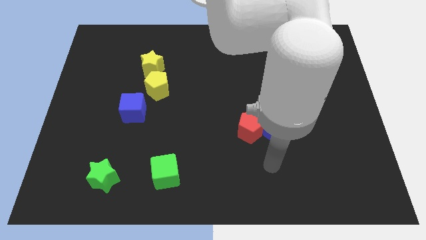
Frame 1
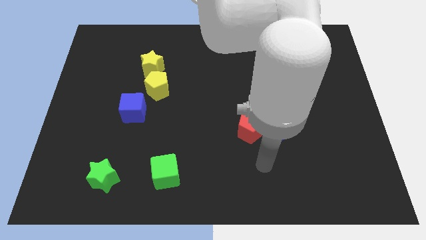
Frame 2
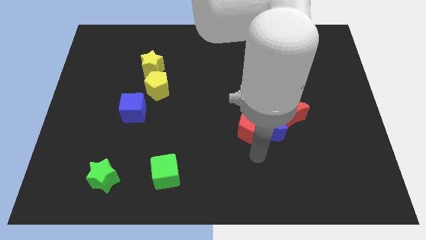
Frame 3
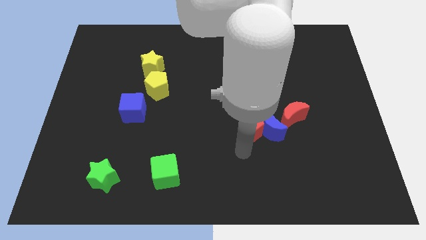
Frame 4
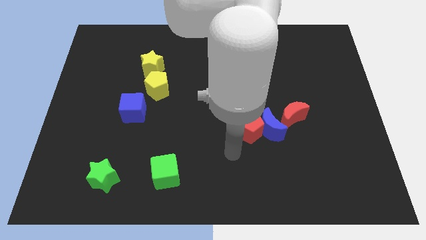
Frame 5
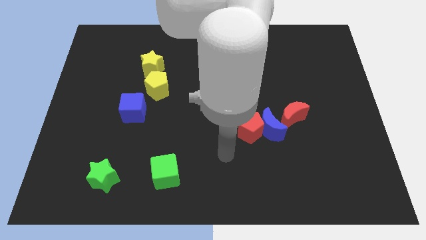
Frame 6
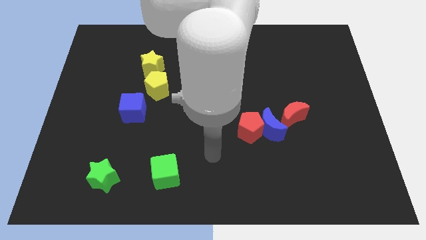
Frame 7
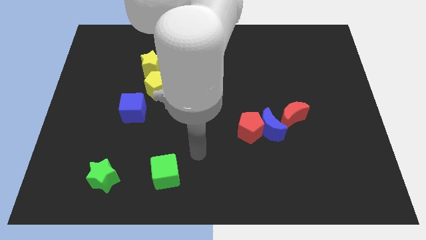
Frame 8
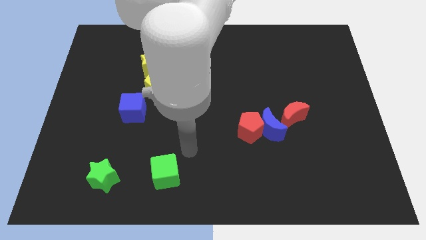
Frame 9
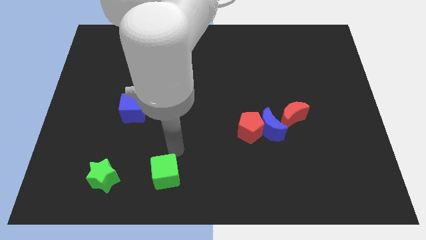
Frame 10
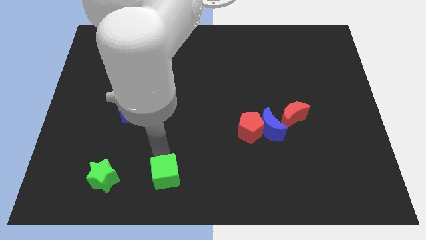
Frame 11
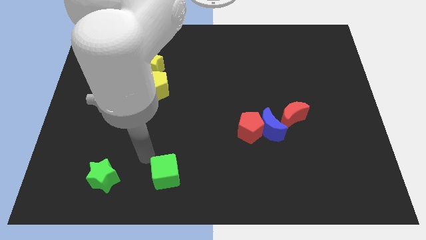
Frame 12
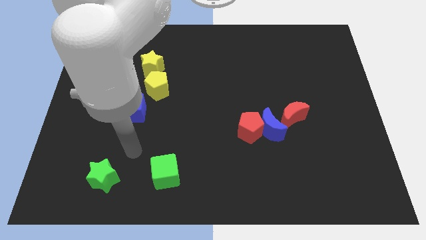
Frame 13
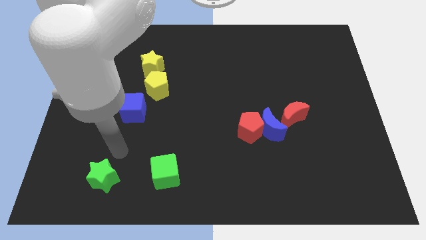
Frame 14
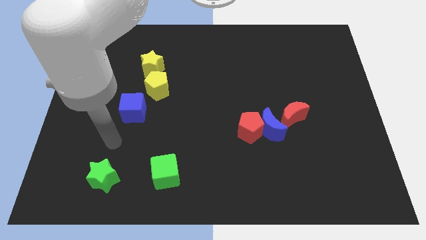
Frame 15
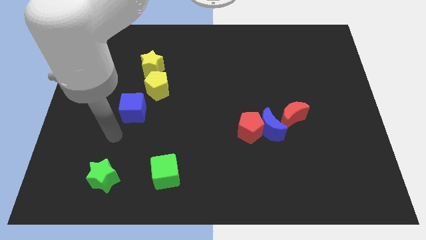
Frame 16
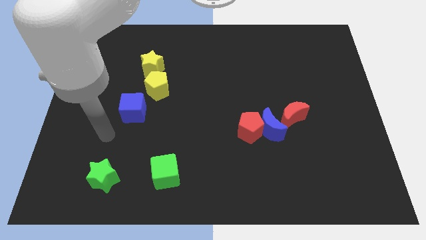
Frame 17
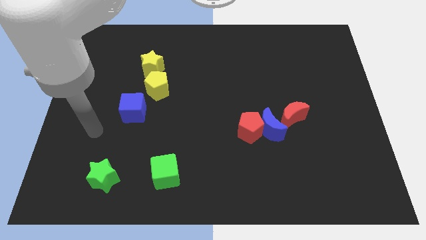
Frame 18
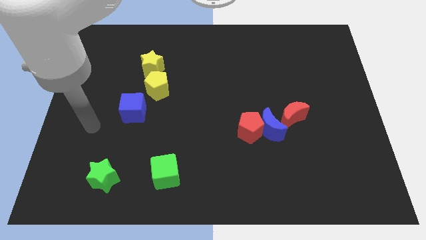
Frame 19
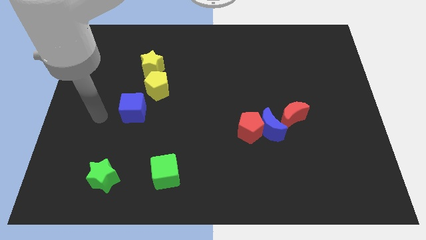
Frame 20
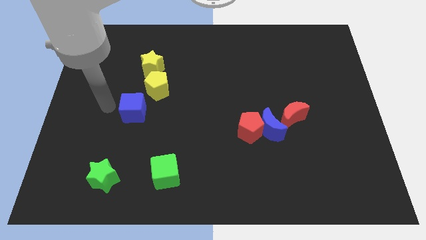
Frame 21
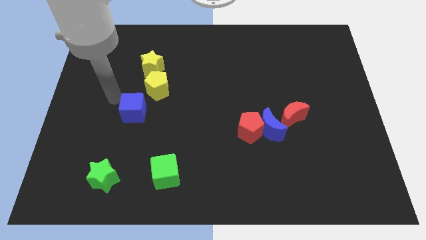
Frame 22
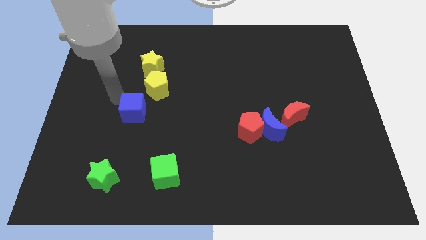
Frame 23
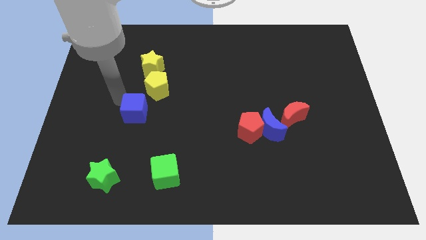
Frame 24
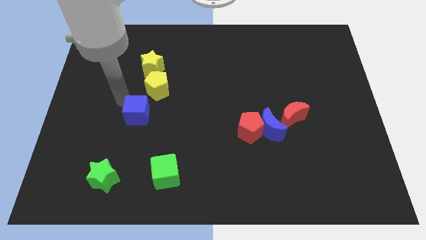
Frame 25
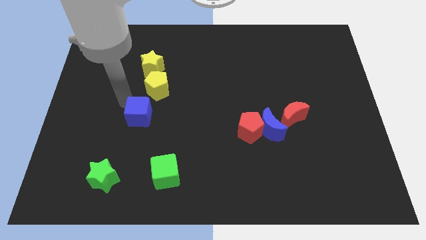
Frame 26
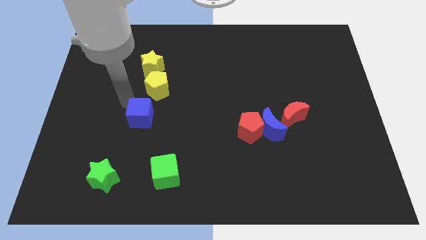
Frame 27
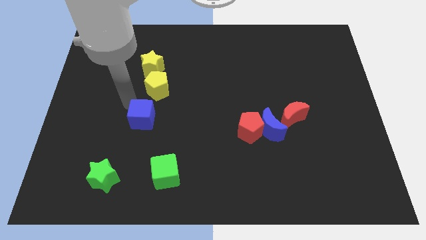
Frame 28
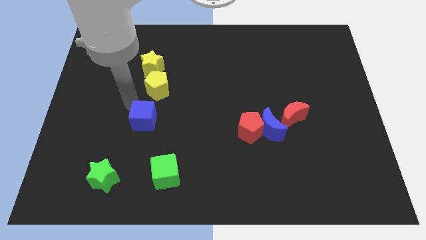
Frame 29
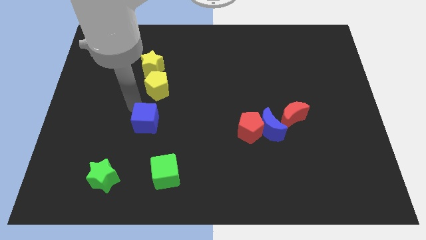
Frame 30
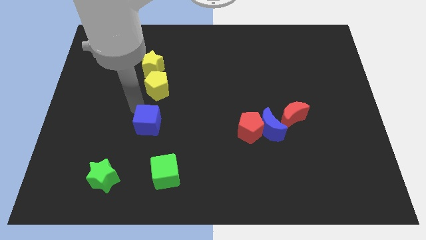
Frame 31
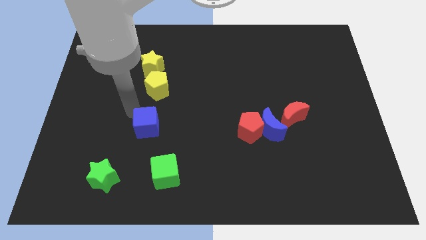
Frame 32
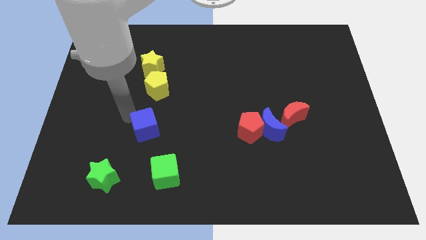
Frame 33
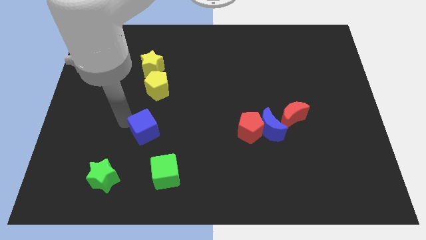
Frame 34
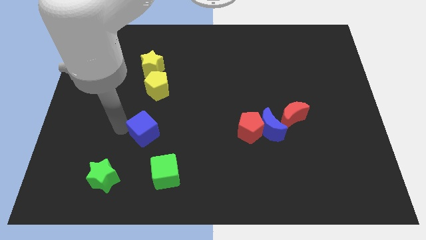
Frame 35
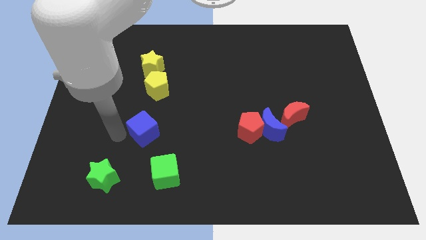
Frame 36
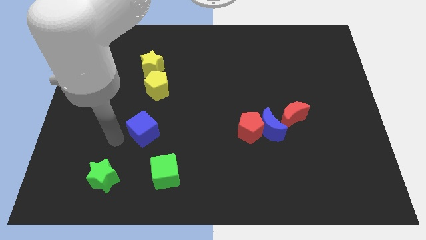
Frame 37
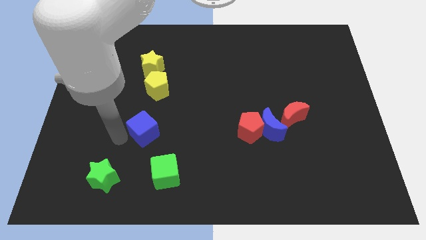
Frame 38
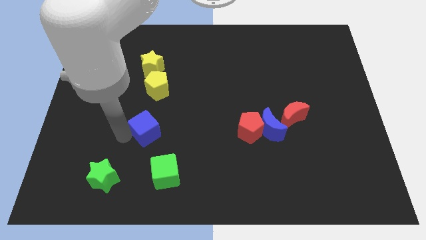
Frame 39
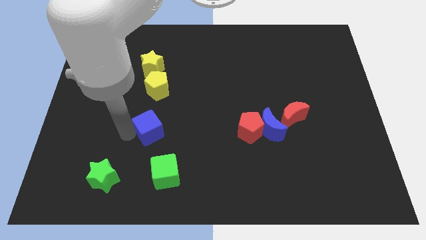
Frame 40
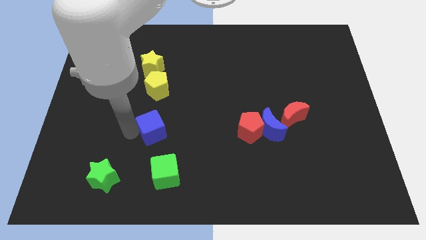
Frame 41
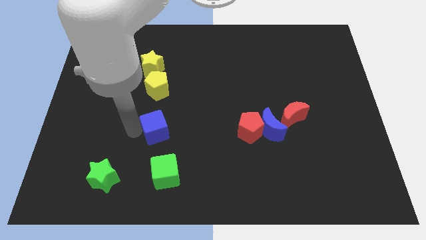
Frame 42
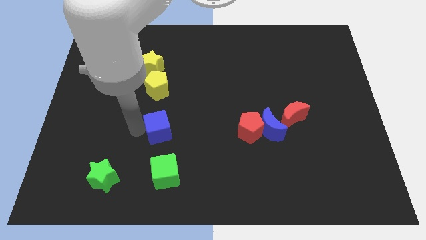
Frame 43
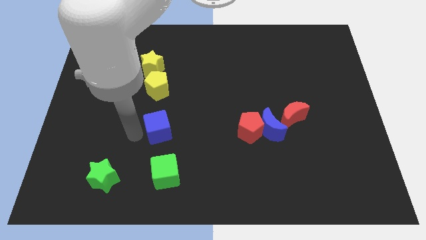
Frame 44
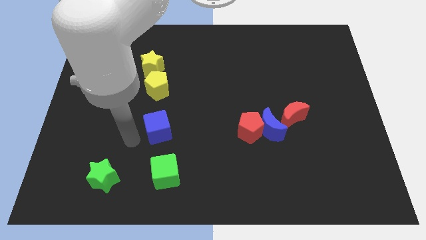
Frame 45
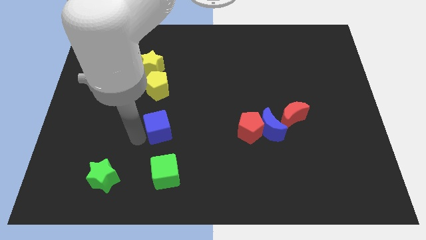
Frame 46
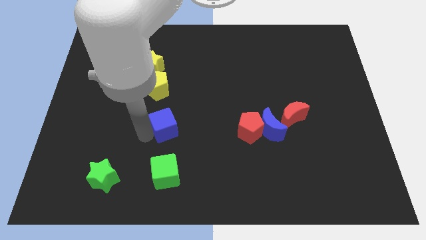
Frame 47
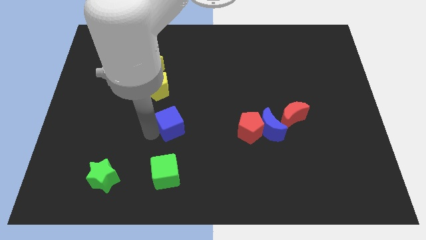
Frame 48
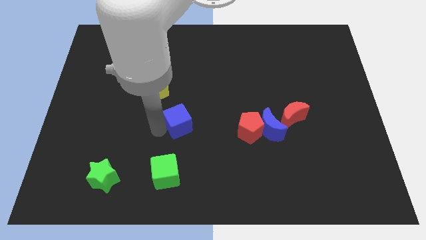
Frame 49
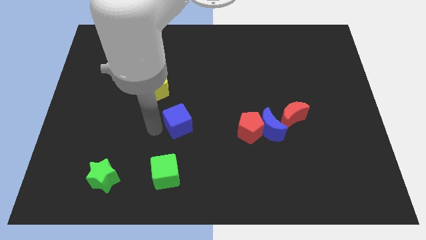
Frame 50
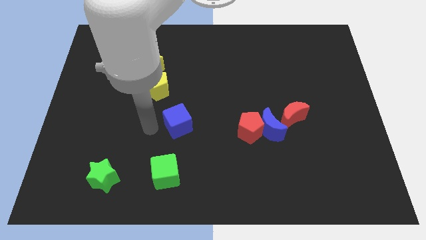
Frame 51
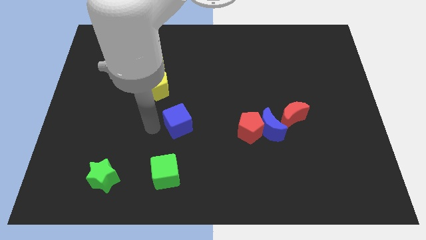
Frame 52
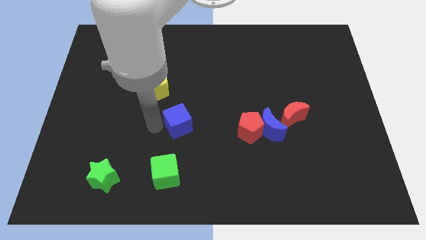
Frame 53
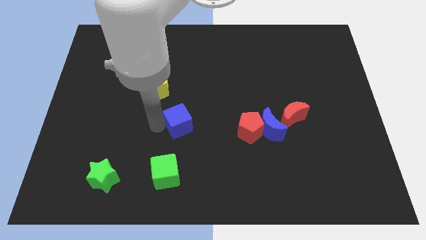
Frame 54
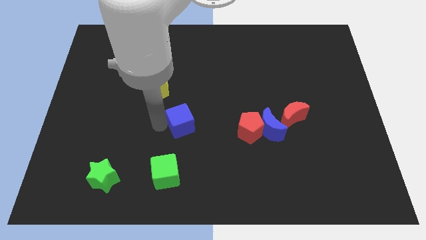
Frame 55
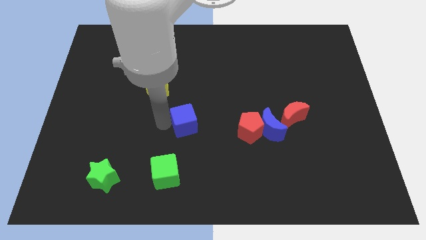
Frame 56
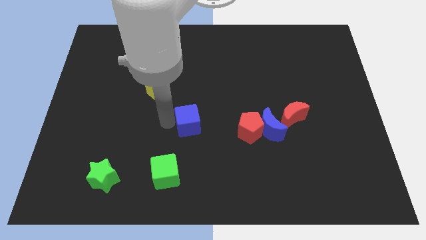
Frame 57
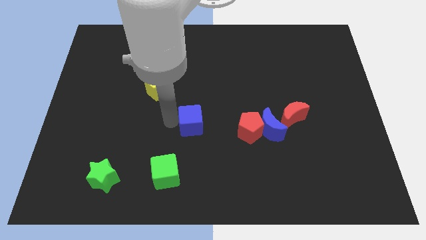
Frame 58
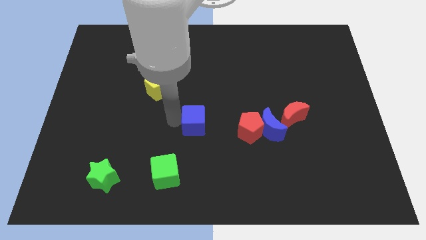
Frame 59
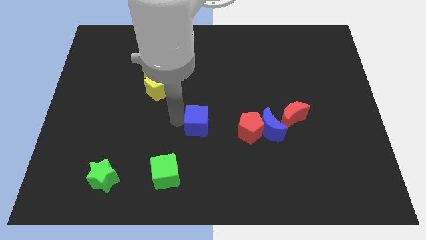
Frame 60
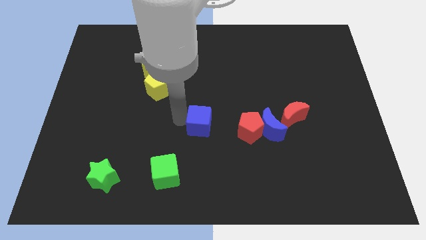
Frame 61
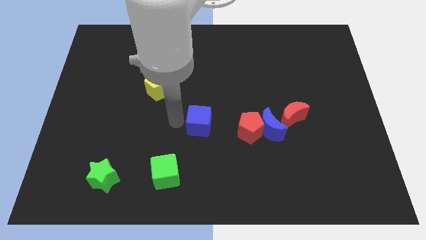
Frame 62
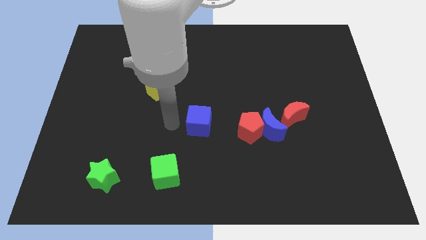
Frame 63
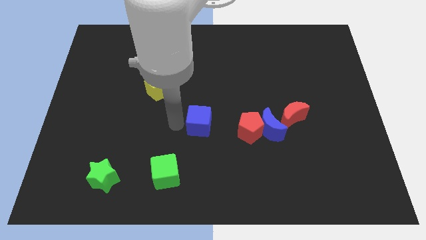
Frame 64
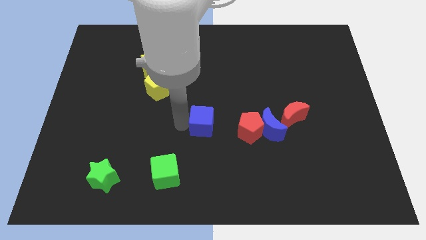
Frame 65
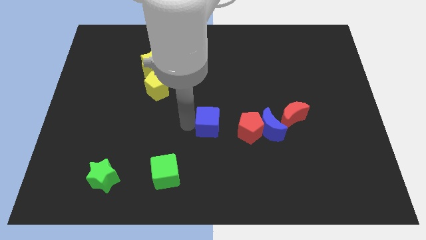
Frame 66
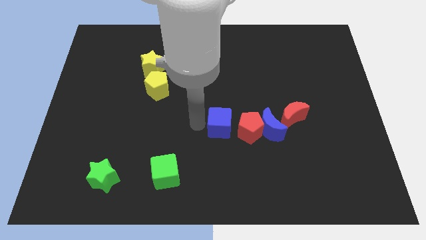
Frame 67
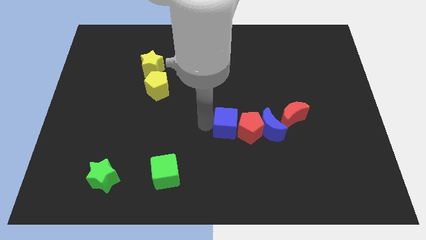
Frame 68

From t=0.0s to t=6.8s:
move the blue cube to the red pentagon
